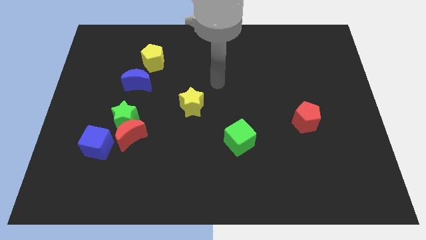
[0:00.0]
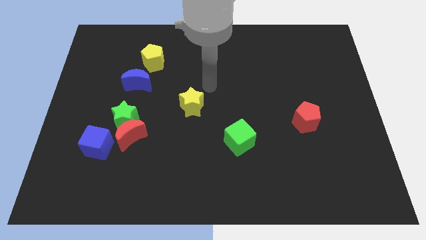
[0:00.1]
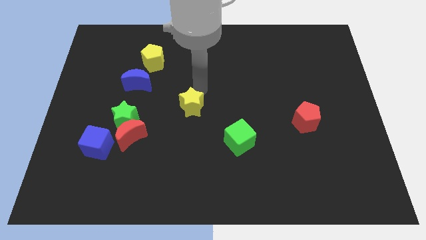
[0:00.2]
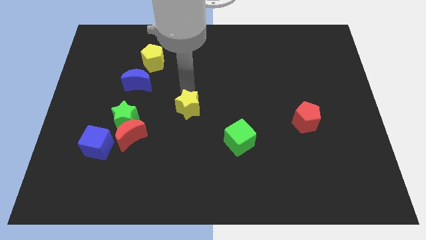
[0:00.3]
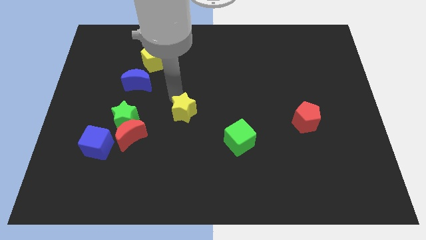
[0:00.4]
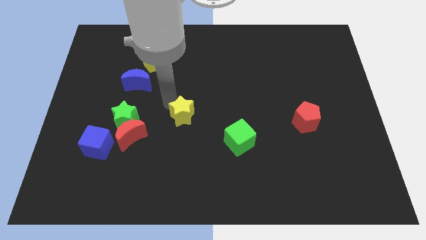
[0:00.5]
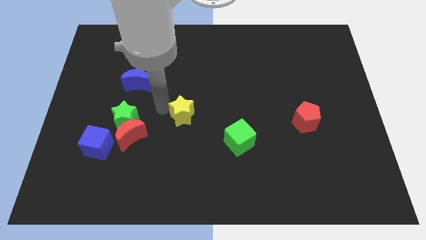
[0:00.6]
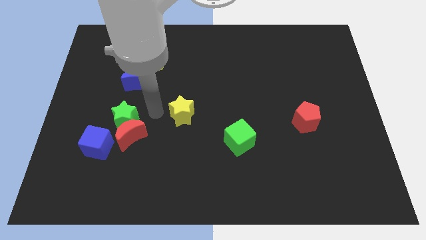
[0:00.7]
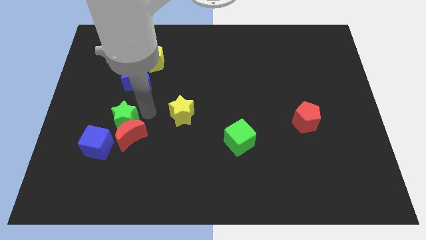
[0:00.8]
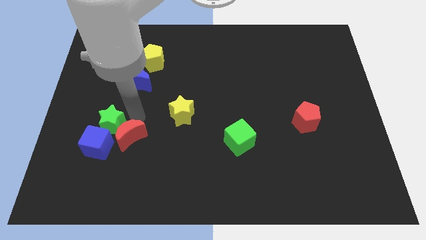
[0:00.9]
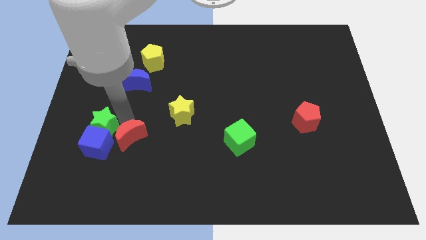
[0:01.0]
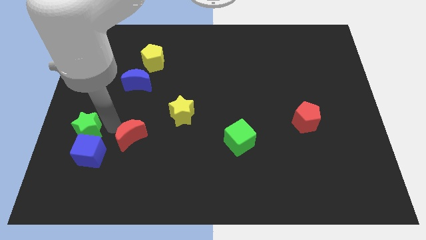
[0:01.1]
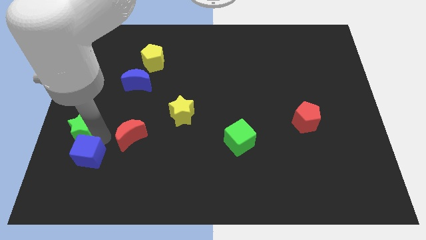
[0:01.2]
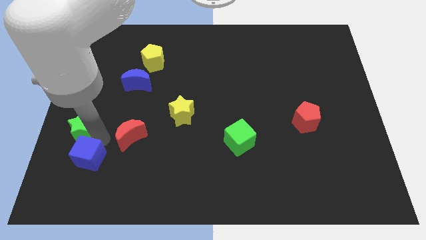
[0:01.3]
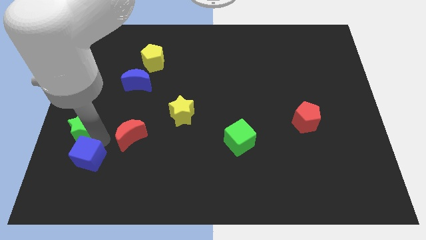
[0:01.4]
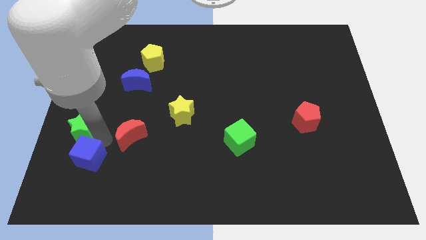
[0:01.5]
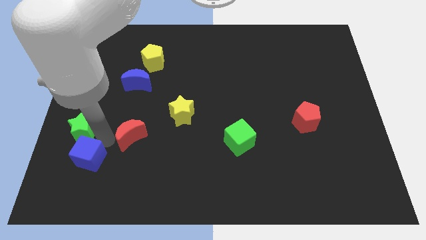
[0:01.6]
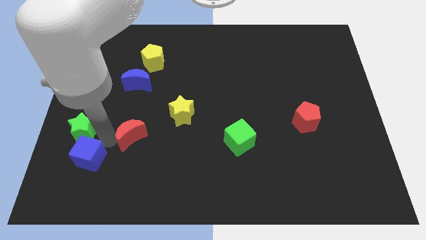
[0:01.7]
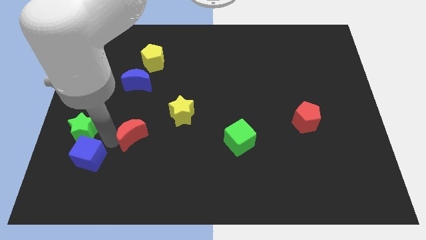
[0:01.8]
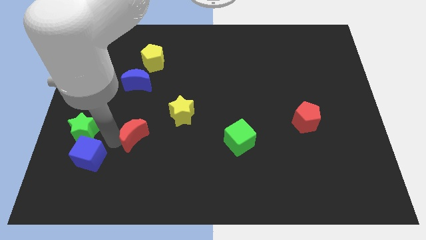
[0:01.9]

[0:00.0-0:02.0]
separate the red moon from the green star and blue cube

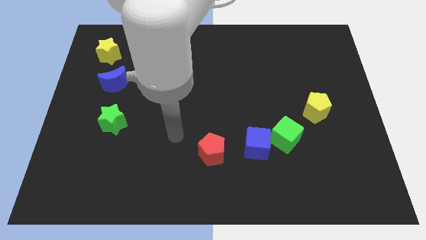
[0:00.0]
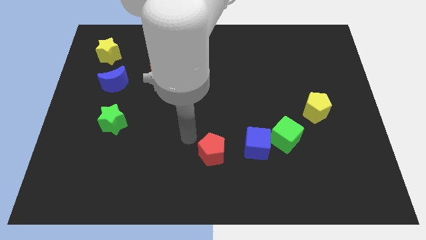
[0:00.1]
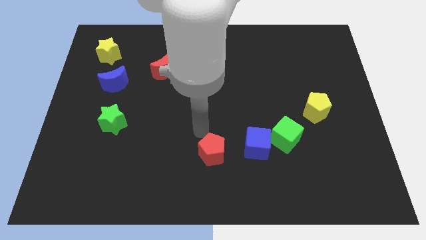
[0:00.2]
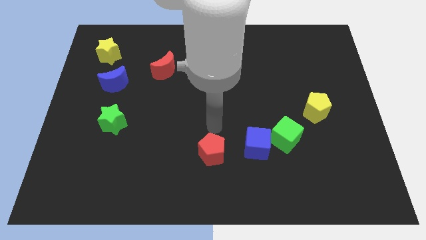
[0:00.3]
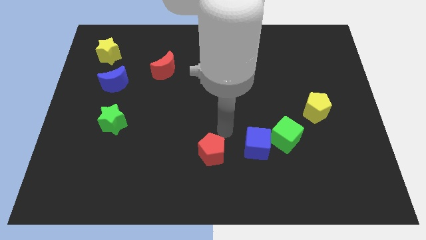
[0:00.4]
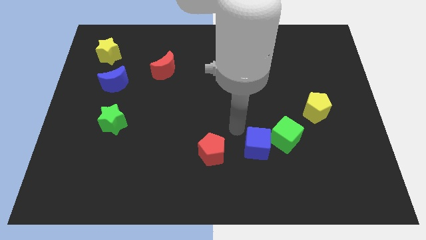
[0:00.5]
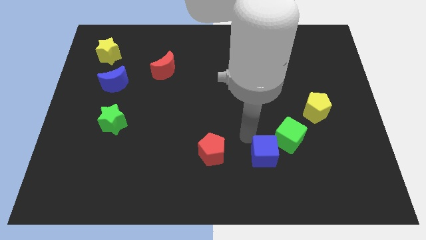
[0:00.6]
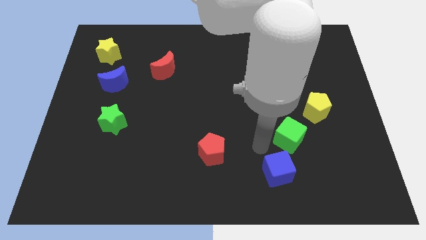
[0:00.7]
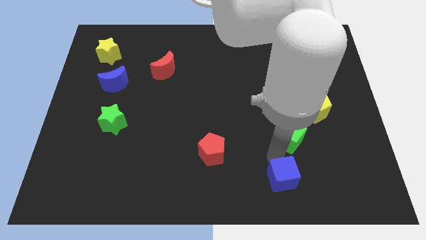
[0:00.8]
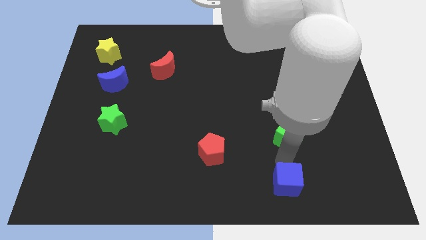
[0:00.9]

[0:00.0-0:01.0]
move the green cube away from the blue cube

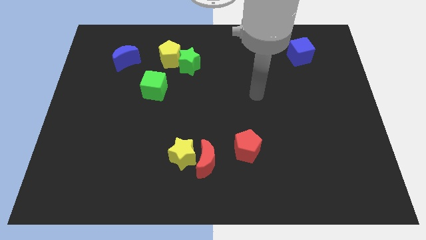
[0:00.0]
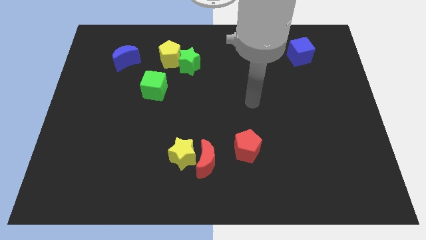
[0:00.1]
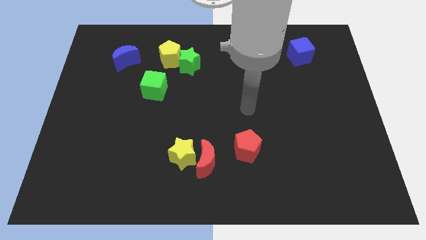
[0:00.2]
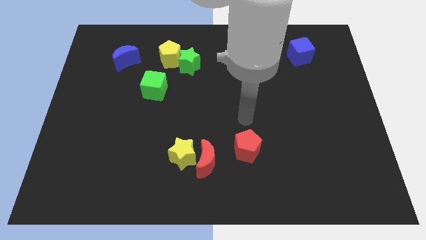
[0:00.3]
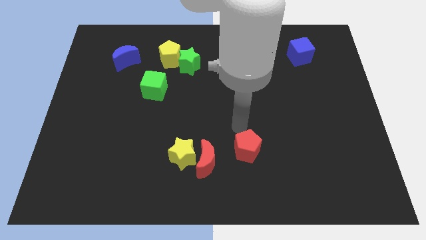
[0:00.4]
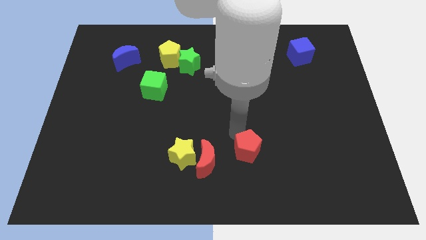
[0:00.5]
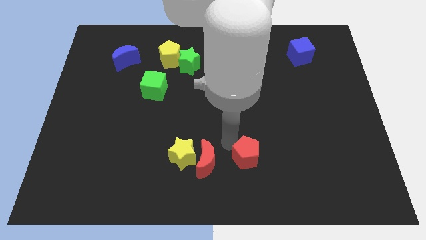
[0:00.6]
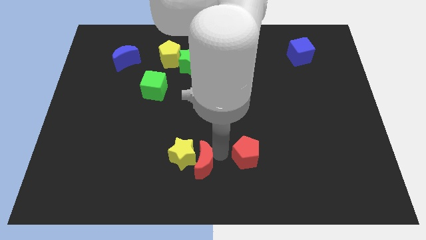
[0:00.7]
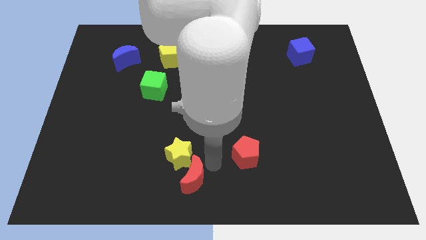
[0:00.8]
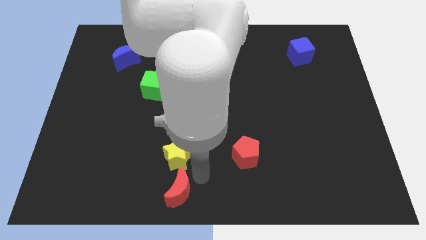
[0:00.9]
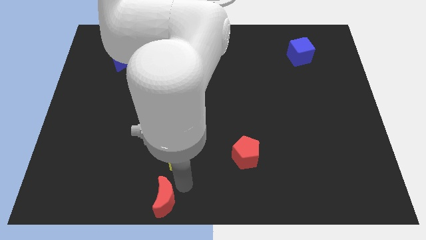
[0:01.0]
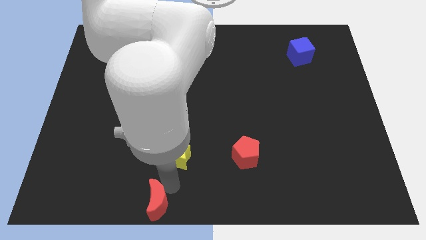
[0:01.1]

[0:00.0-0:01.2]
separate the yellow star from the red moon

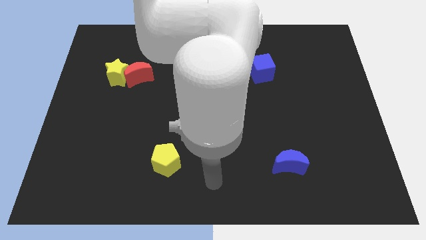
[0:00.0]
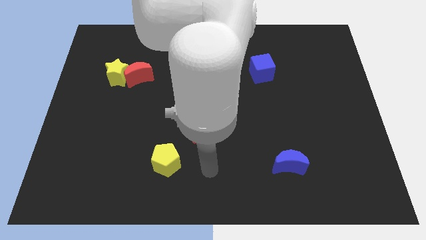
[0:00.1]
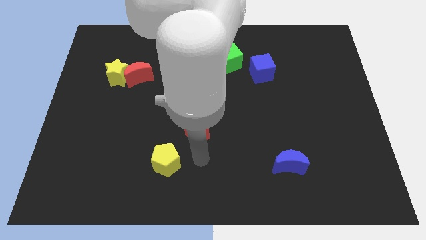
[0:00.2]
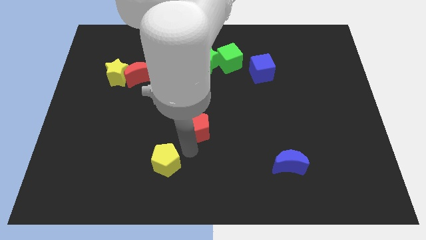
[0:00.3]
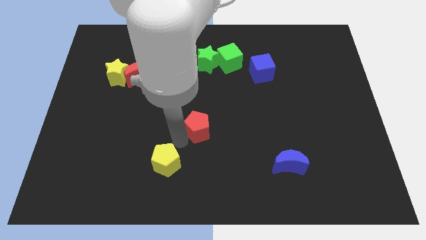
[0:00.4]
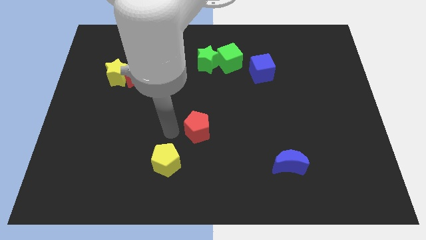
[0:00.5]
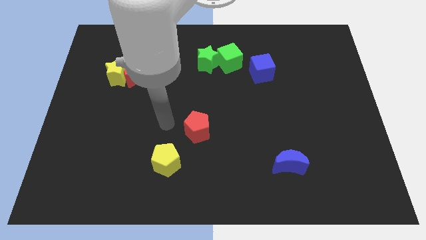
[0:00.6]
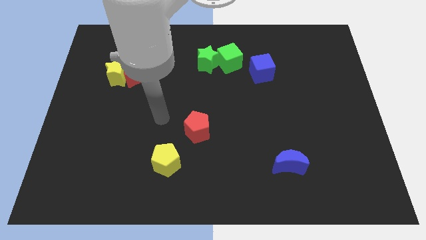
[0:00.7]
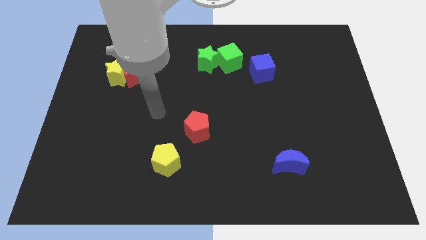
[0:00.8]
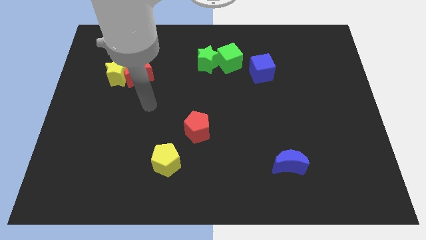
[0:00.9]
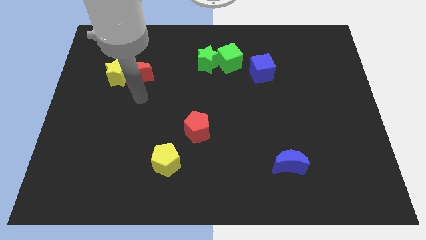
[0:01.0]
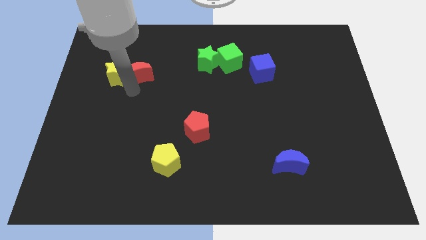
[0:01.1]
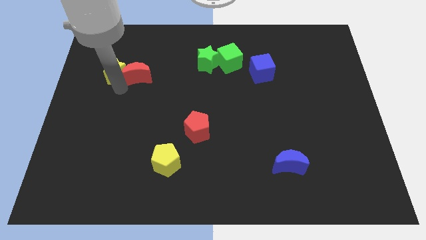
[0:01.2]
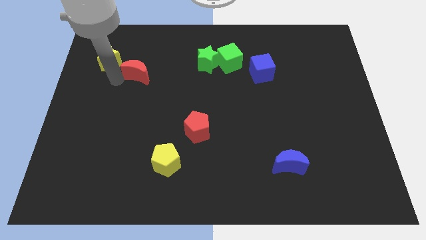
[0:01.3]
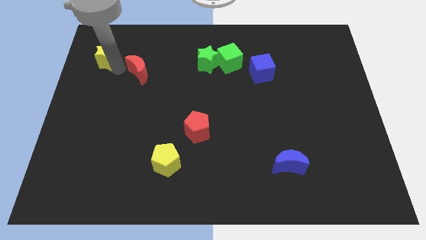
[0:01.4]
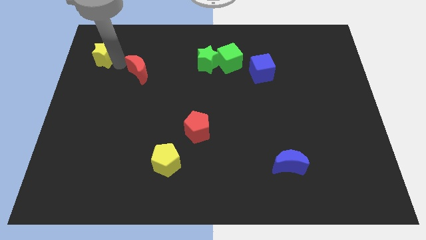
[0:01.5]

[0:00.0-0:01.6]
separate the red moon from the yellow star

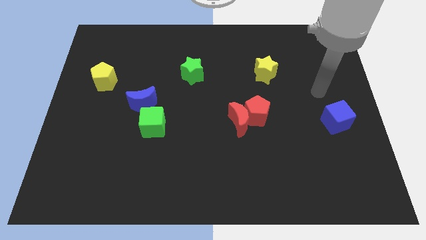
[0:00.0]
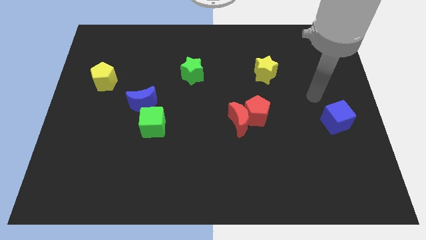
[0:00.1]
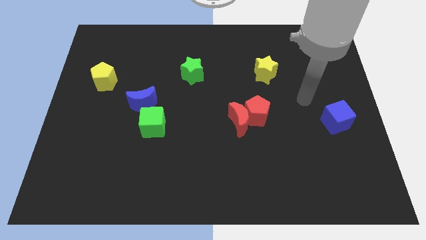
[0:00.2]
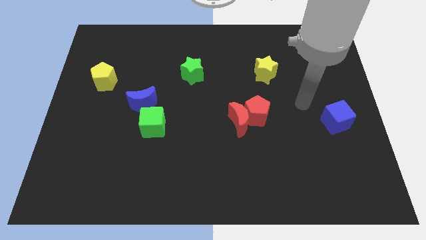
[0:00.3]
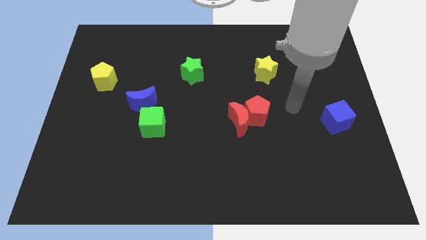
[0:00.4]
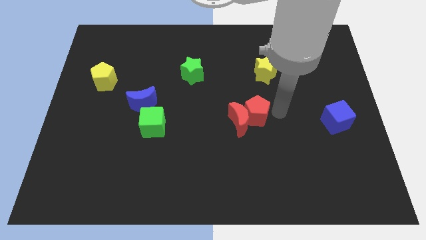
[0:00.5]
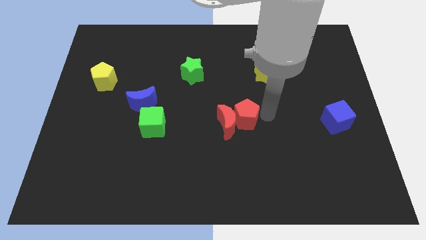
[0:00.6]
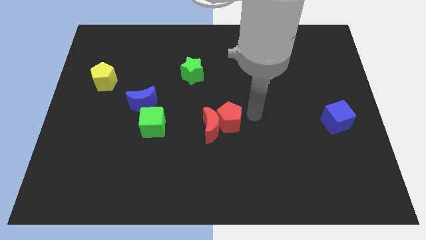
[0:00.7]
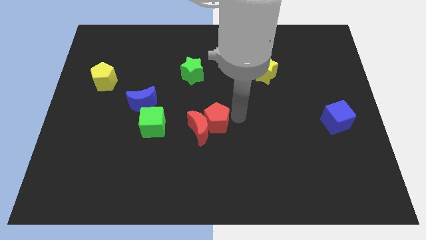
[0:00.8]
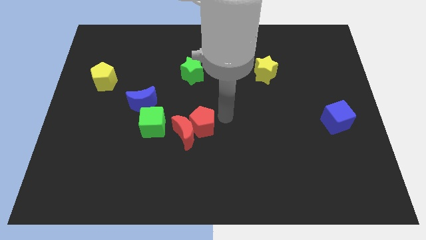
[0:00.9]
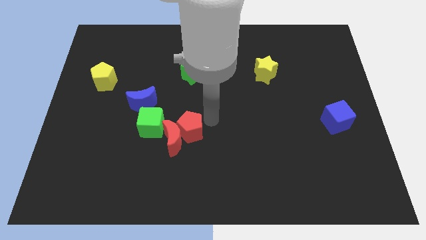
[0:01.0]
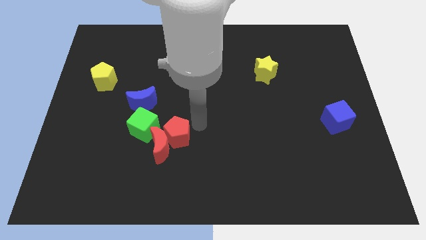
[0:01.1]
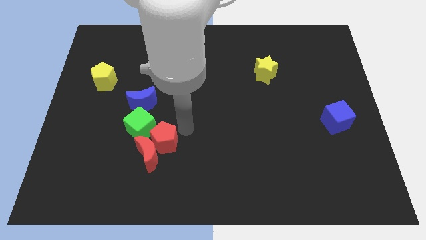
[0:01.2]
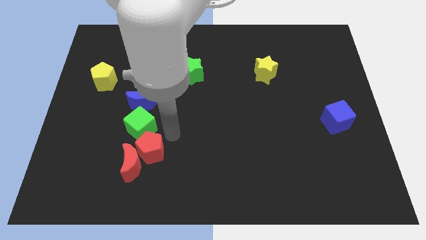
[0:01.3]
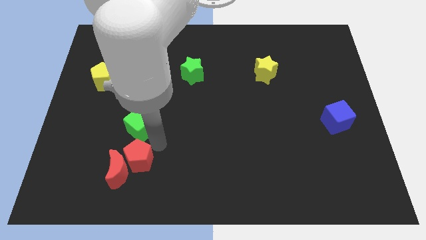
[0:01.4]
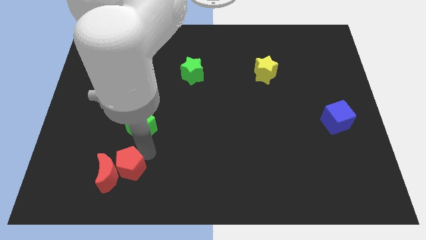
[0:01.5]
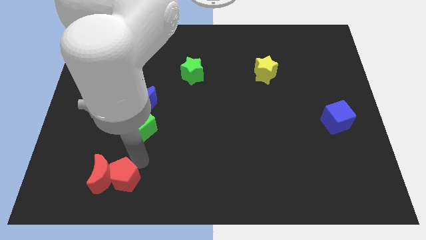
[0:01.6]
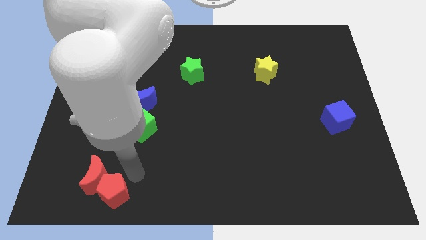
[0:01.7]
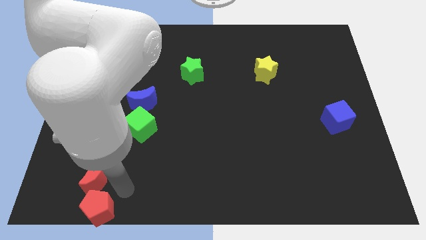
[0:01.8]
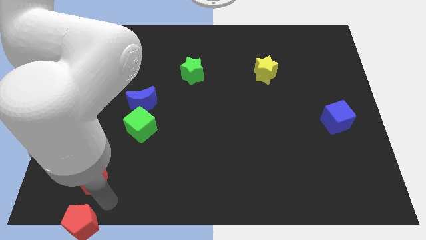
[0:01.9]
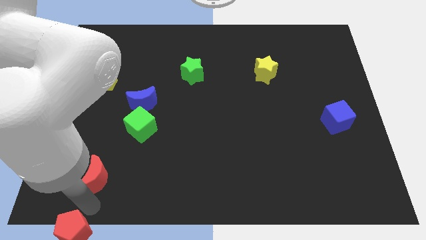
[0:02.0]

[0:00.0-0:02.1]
separate the red moon from the red pentagon

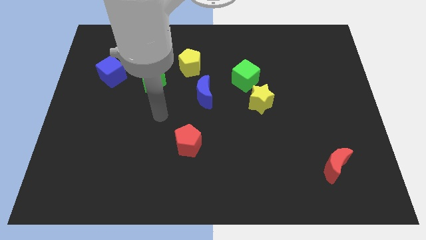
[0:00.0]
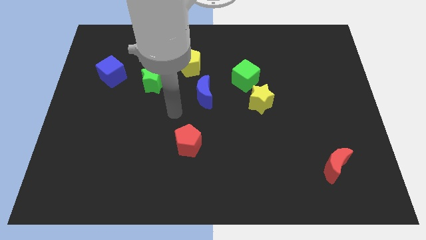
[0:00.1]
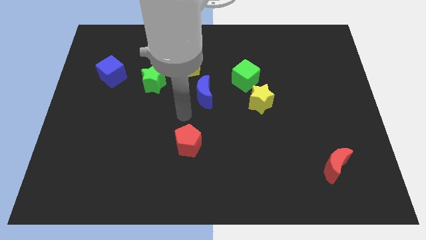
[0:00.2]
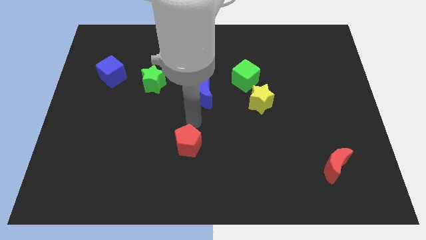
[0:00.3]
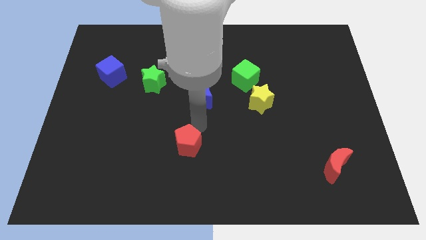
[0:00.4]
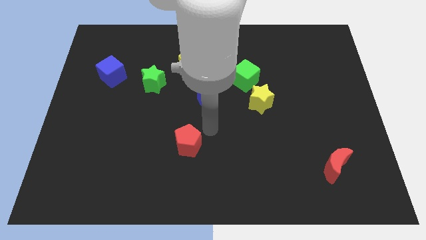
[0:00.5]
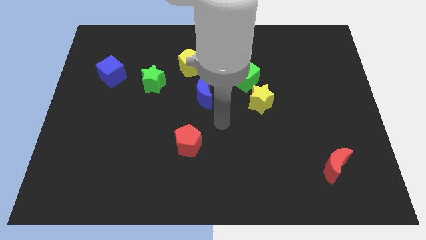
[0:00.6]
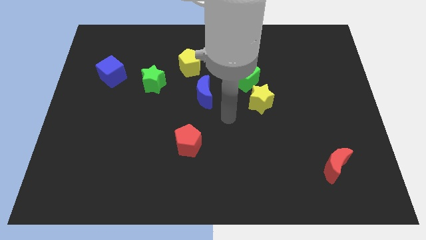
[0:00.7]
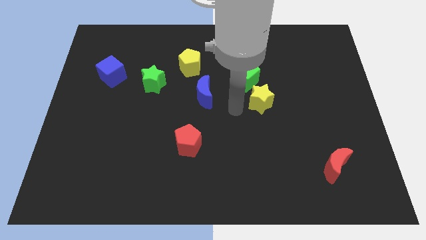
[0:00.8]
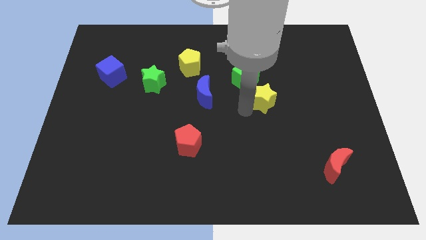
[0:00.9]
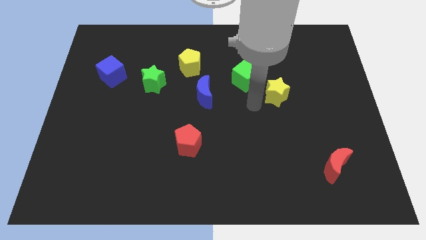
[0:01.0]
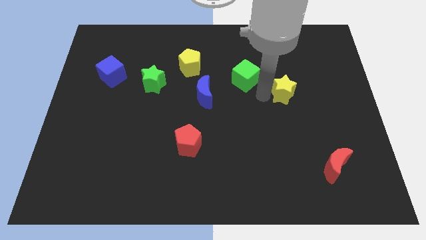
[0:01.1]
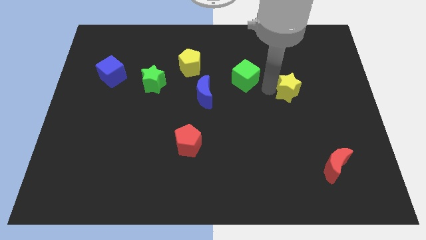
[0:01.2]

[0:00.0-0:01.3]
move the green cube away from the yellow star

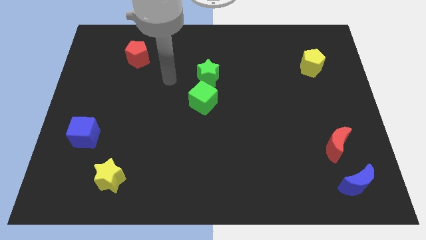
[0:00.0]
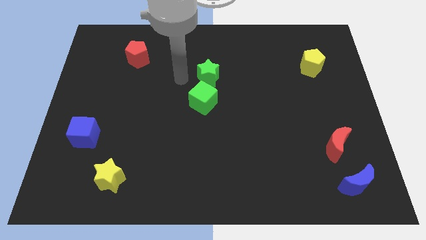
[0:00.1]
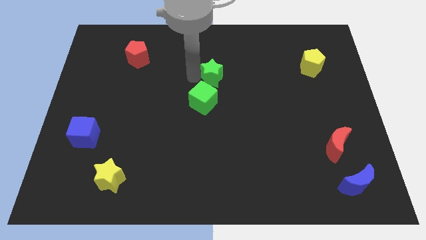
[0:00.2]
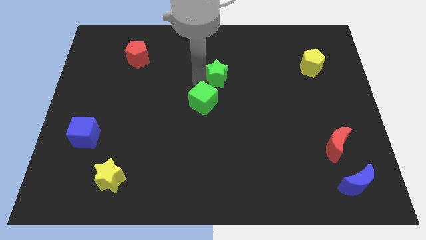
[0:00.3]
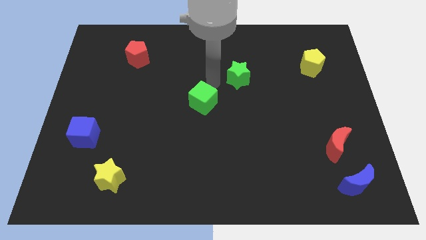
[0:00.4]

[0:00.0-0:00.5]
separate the green cube from the green star
